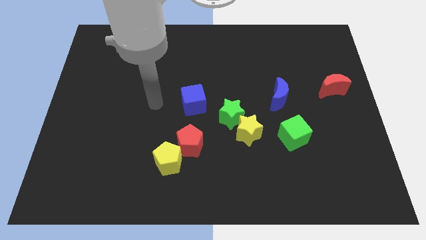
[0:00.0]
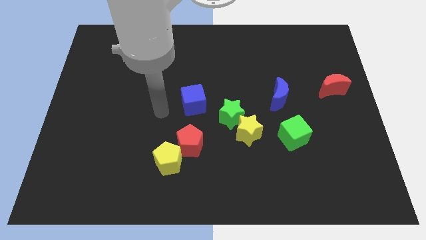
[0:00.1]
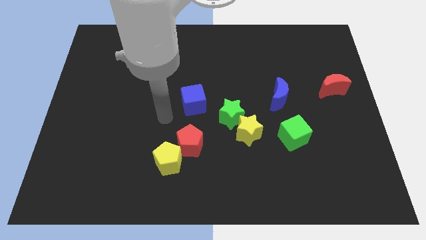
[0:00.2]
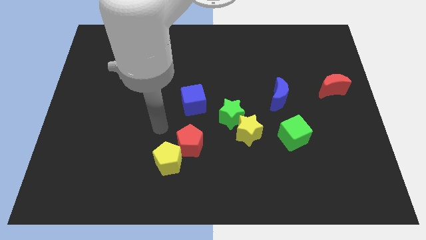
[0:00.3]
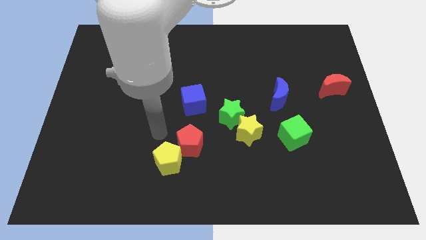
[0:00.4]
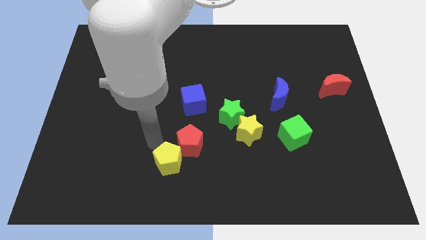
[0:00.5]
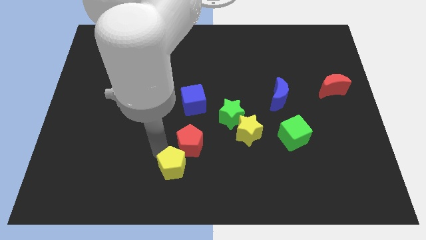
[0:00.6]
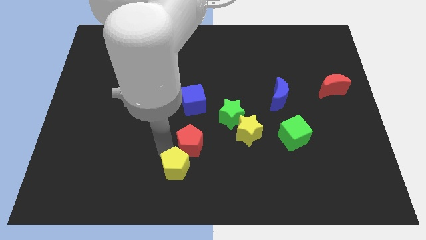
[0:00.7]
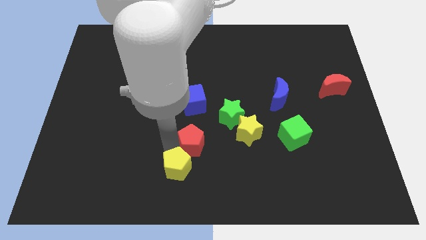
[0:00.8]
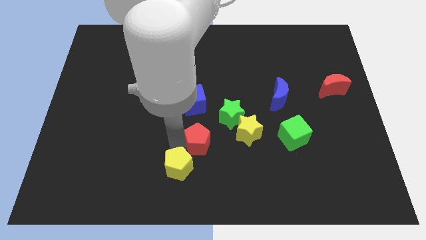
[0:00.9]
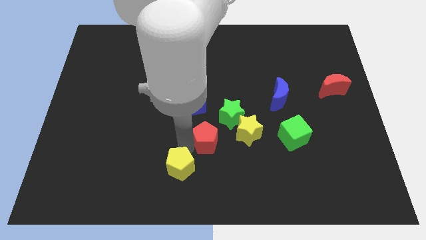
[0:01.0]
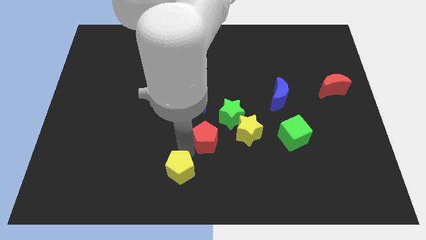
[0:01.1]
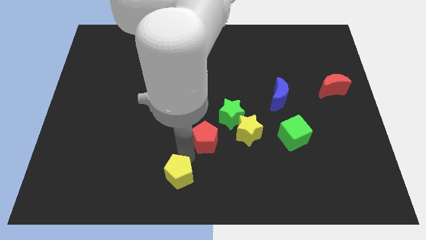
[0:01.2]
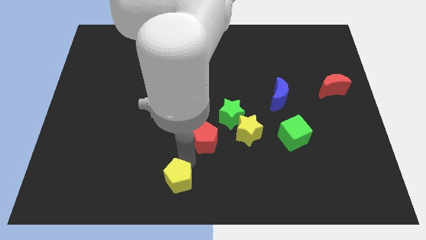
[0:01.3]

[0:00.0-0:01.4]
pull the red pentagon apart from the yellow pentagon

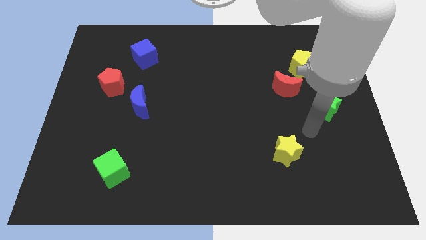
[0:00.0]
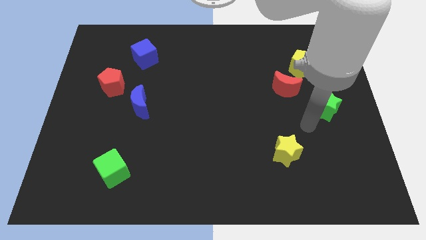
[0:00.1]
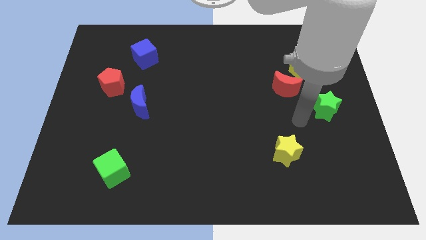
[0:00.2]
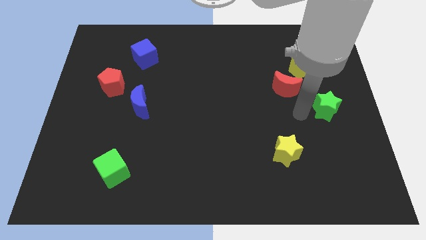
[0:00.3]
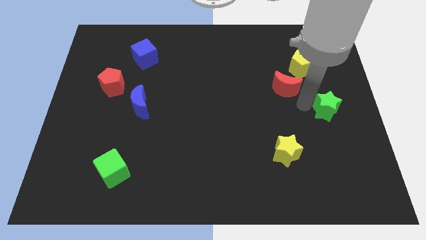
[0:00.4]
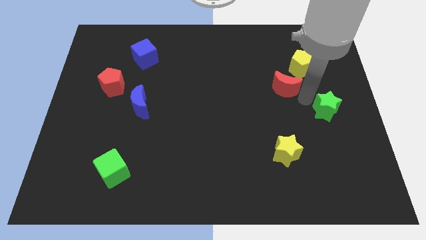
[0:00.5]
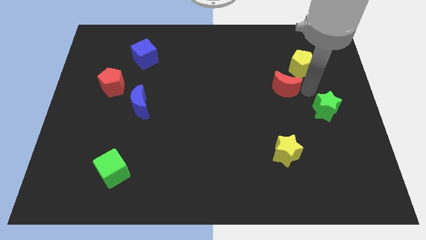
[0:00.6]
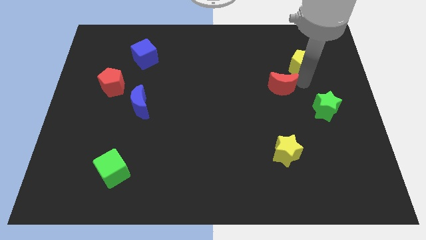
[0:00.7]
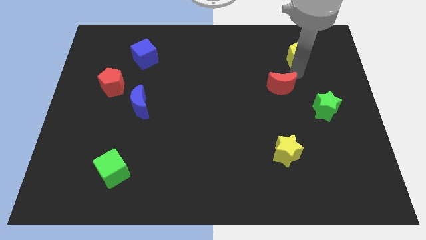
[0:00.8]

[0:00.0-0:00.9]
move the red moon away from the yellow pentagon

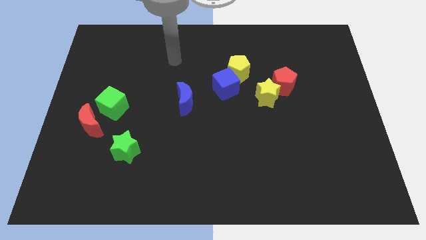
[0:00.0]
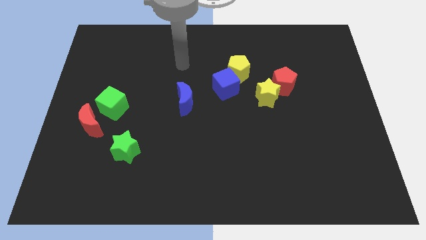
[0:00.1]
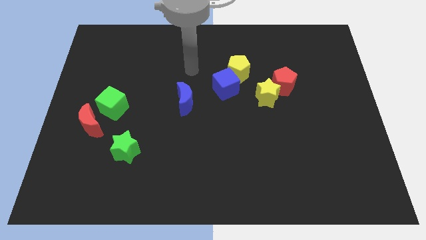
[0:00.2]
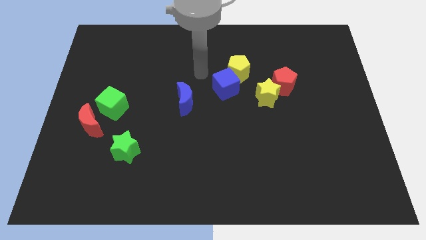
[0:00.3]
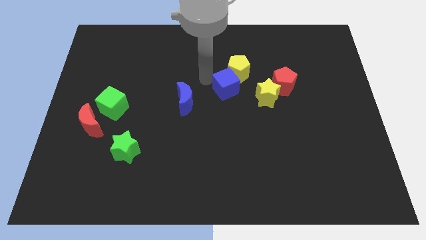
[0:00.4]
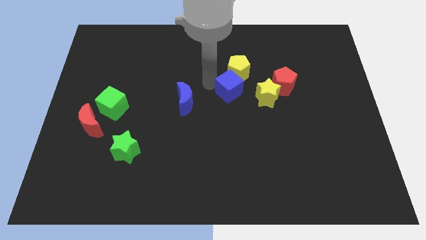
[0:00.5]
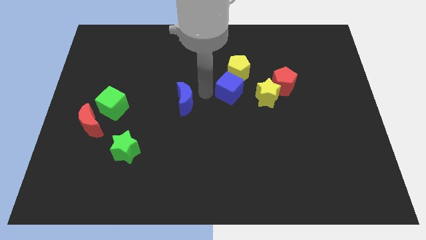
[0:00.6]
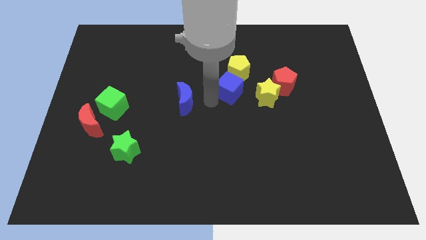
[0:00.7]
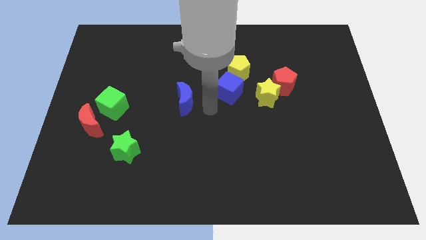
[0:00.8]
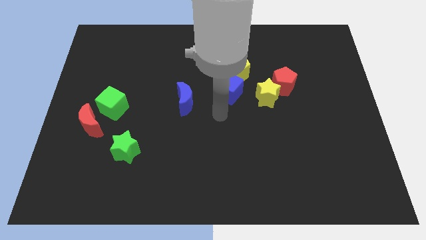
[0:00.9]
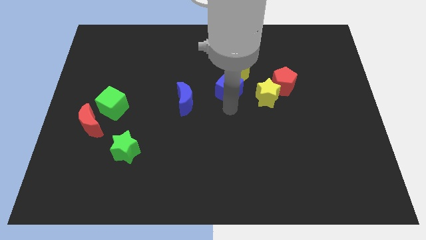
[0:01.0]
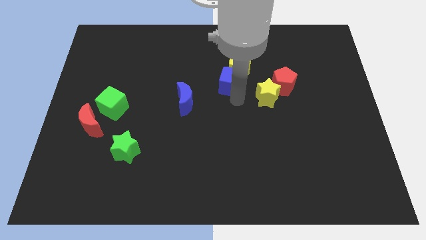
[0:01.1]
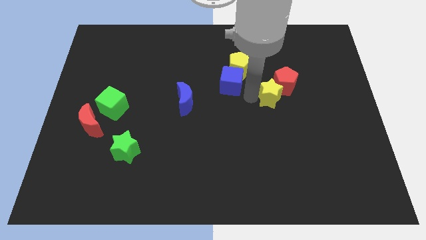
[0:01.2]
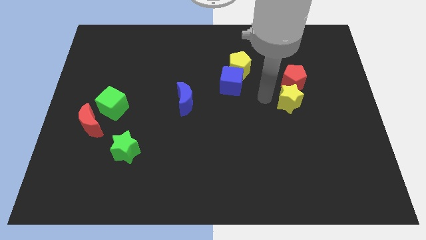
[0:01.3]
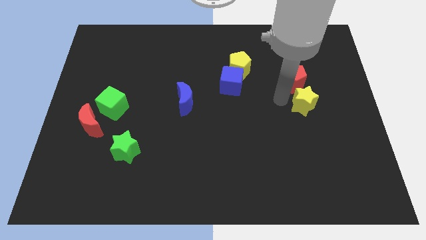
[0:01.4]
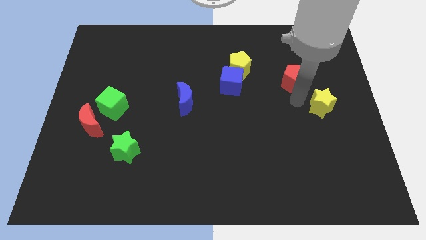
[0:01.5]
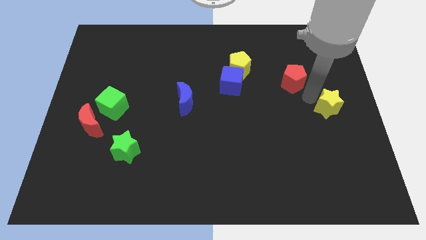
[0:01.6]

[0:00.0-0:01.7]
pull the red pentagon apart from the yellow star

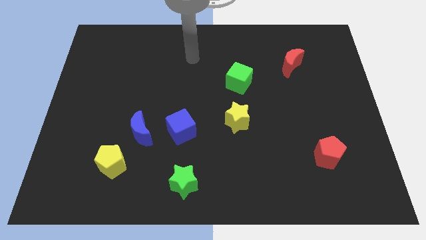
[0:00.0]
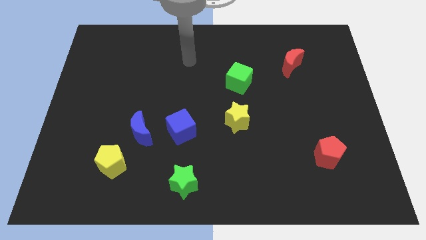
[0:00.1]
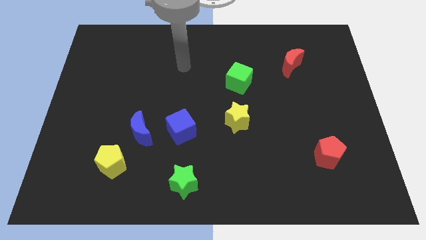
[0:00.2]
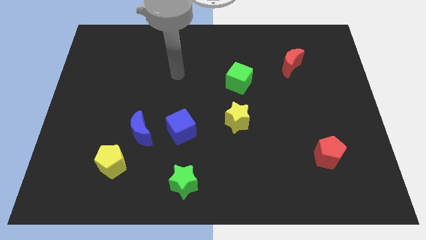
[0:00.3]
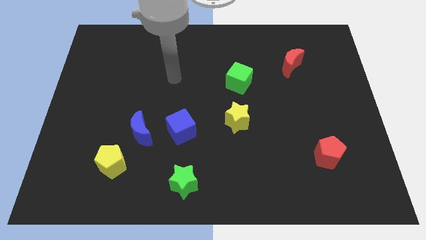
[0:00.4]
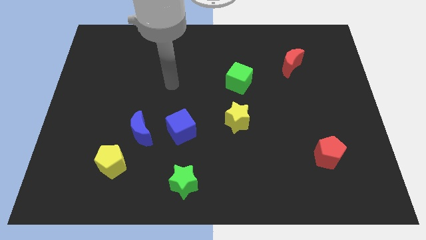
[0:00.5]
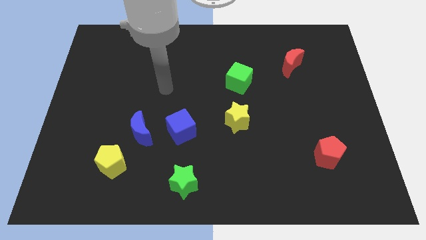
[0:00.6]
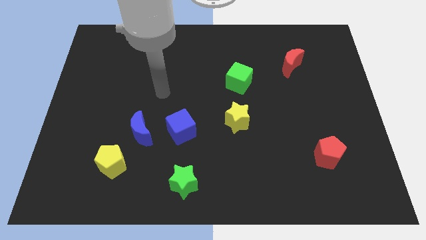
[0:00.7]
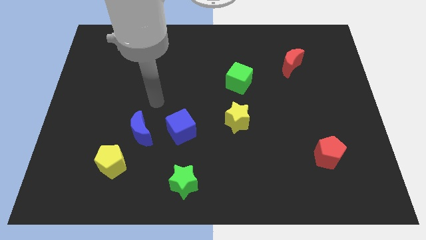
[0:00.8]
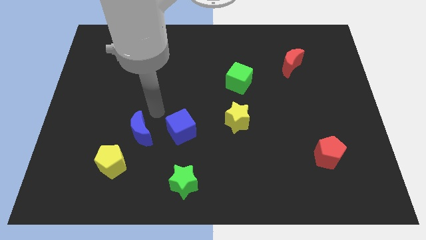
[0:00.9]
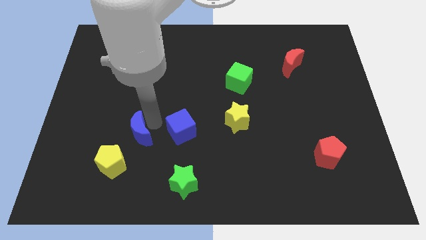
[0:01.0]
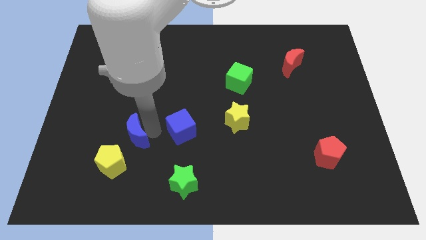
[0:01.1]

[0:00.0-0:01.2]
pull the blue cube apart from the blue moon

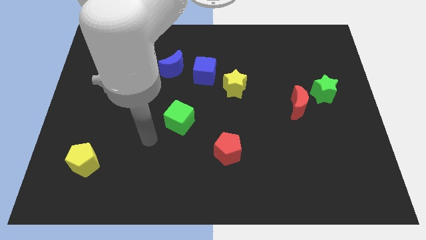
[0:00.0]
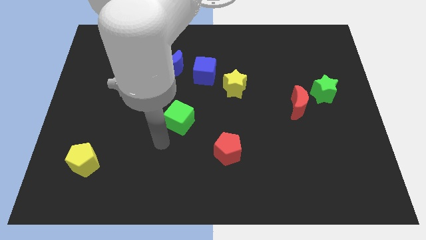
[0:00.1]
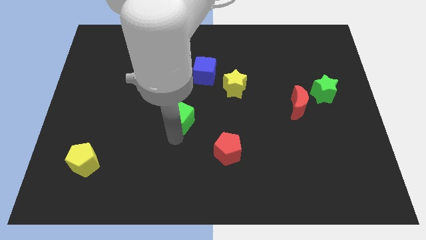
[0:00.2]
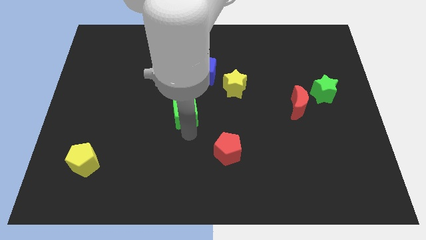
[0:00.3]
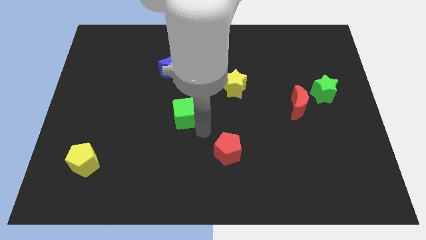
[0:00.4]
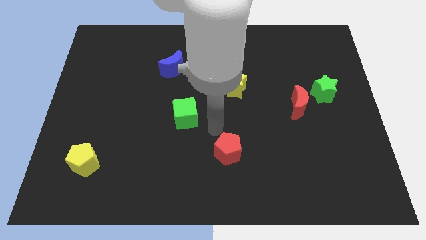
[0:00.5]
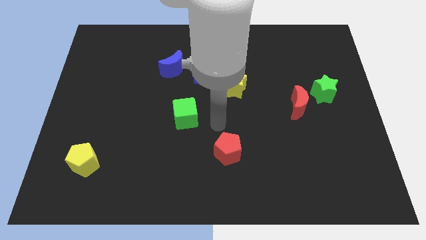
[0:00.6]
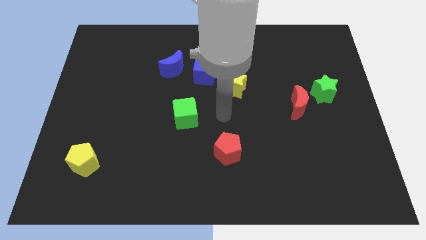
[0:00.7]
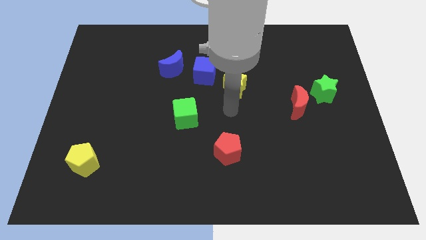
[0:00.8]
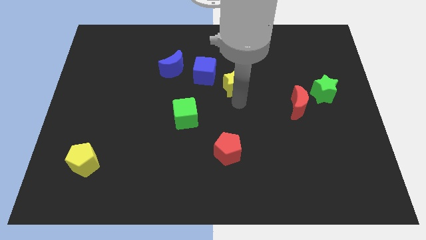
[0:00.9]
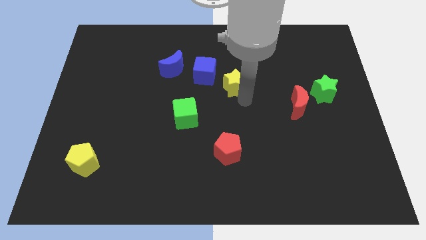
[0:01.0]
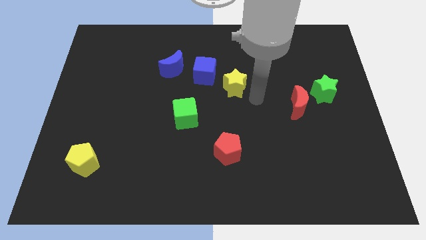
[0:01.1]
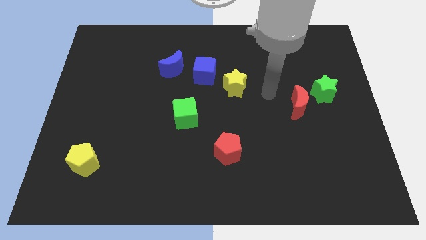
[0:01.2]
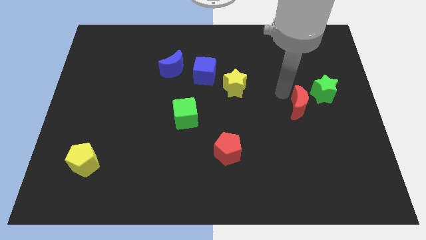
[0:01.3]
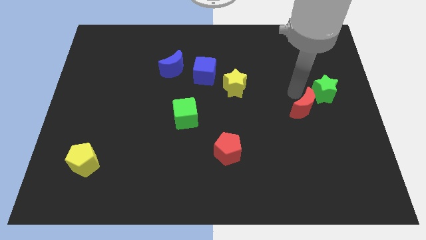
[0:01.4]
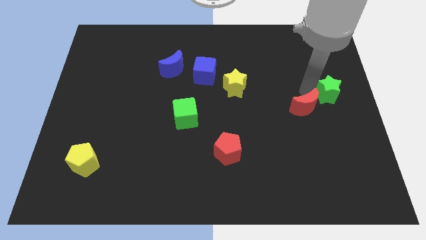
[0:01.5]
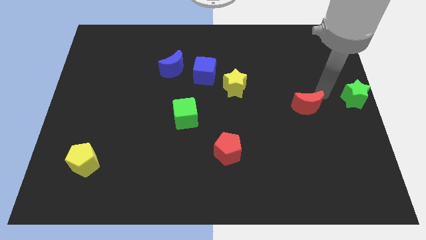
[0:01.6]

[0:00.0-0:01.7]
separate the red moon from the green star

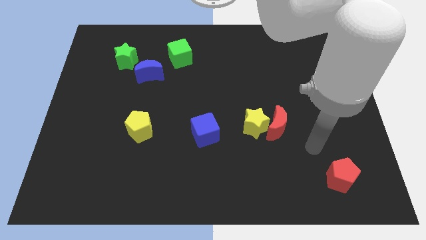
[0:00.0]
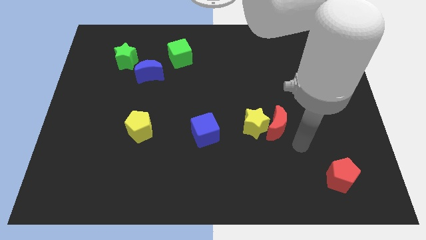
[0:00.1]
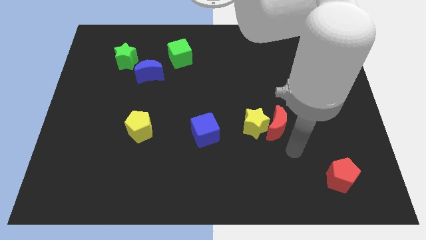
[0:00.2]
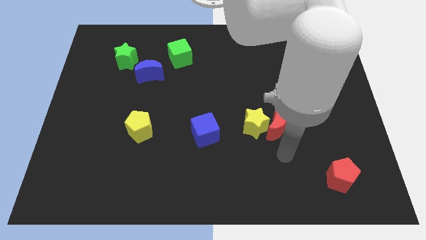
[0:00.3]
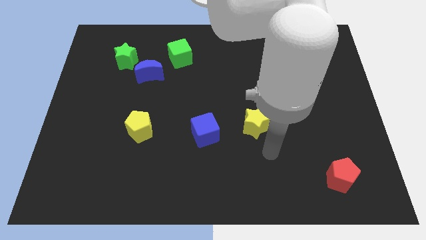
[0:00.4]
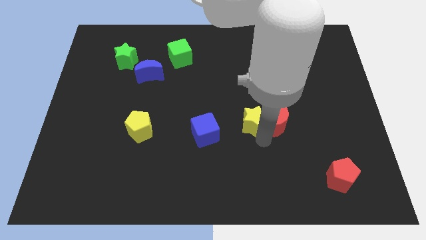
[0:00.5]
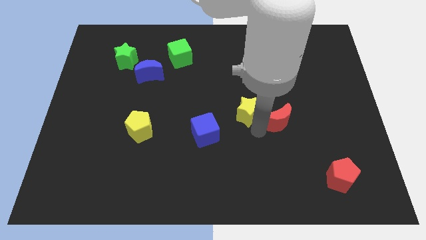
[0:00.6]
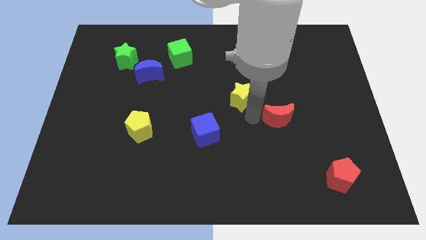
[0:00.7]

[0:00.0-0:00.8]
move the red moon away from the yellow star

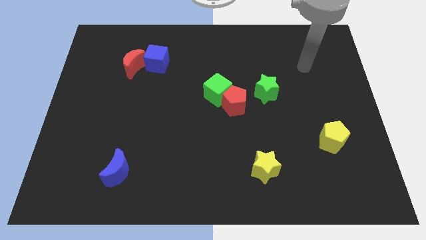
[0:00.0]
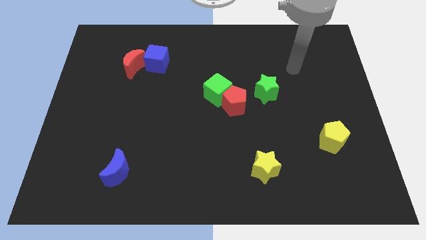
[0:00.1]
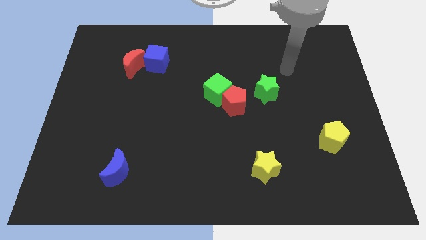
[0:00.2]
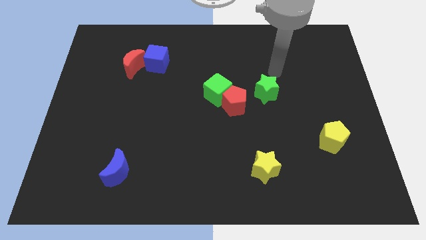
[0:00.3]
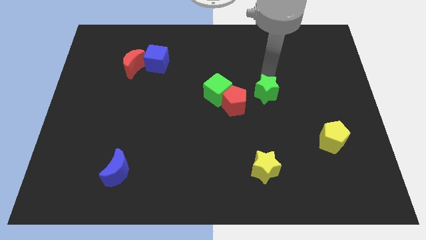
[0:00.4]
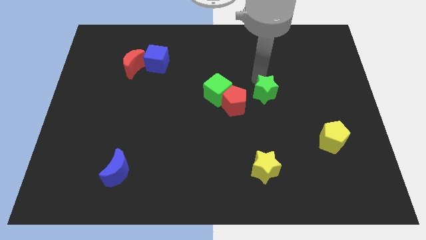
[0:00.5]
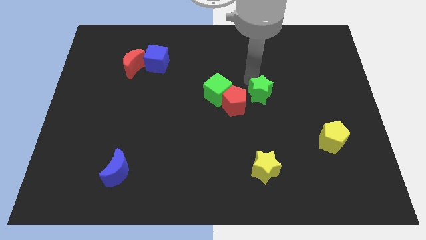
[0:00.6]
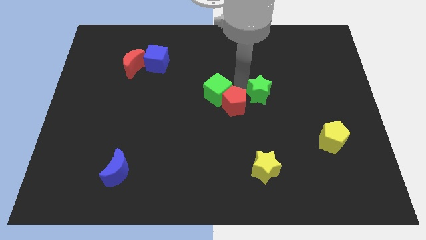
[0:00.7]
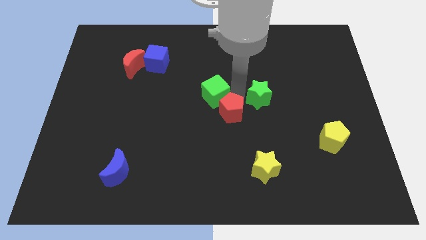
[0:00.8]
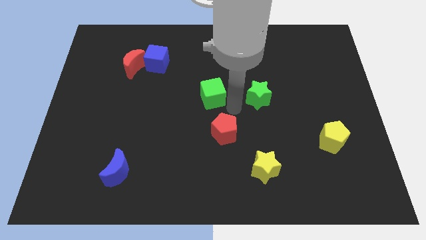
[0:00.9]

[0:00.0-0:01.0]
separate the green cube from the red pentagon

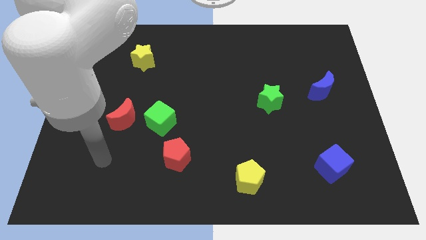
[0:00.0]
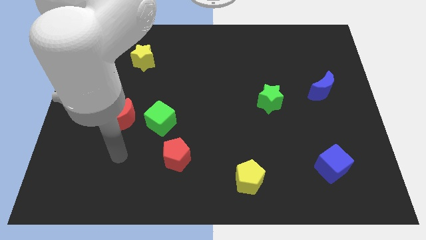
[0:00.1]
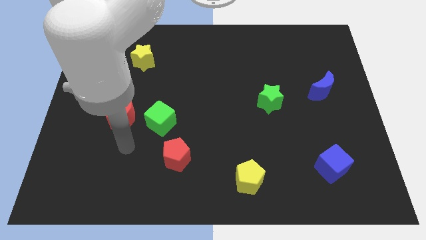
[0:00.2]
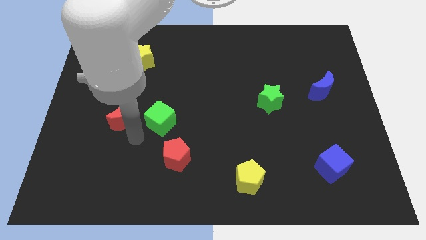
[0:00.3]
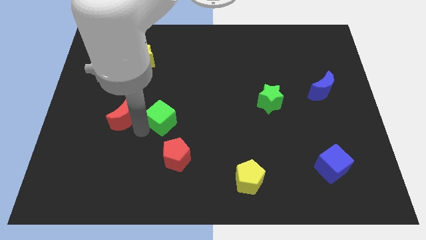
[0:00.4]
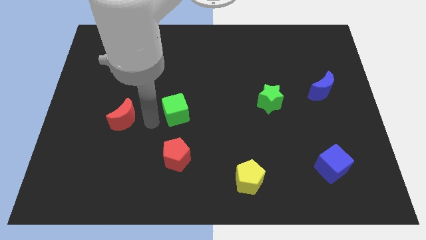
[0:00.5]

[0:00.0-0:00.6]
separate the red moon from the green cube

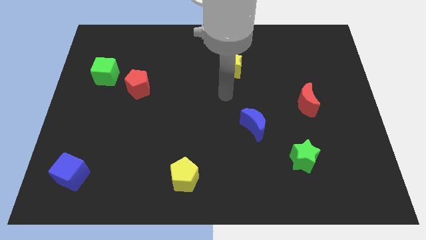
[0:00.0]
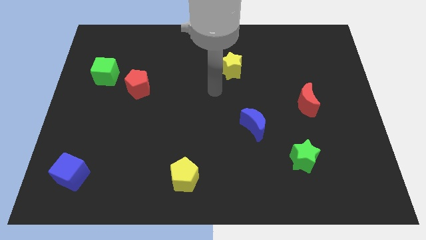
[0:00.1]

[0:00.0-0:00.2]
separate the red pentagon from the green cube
